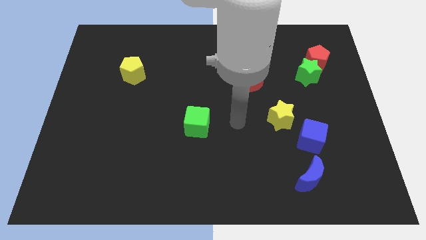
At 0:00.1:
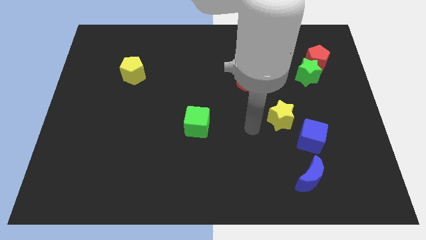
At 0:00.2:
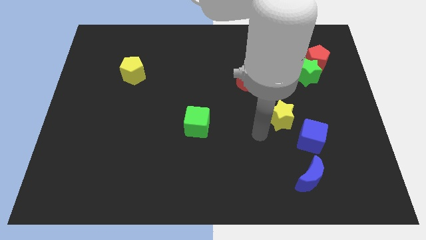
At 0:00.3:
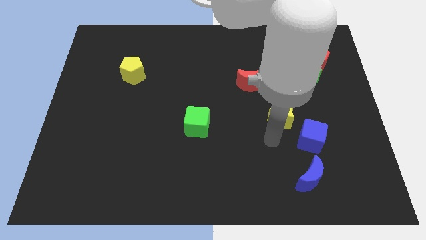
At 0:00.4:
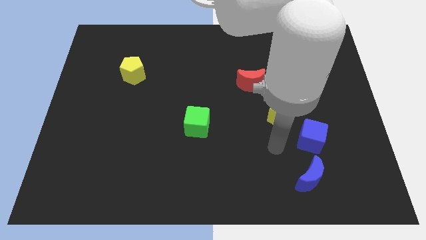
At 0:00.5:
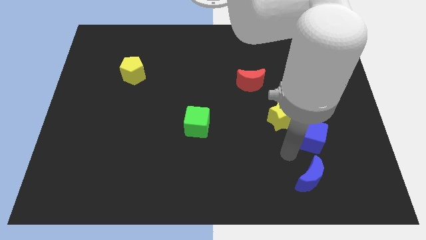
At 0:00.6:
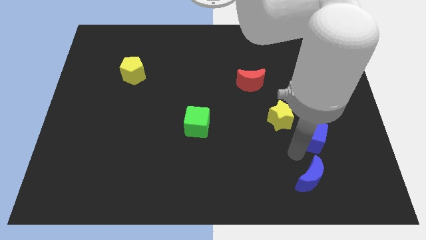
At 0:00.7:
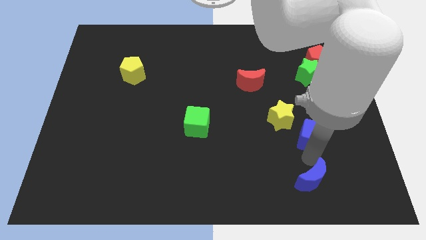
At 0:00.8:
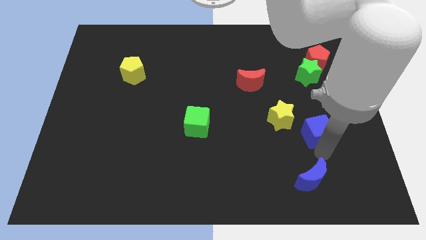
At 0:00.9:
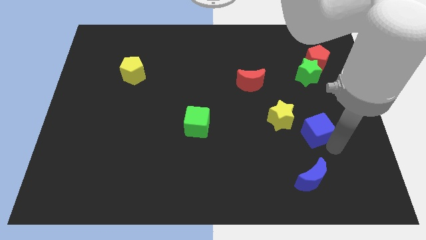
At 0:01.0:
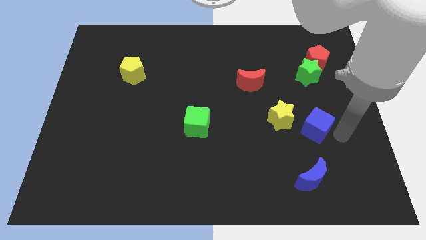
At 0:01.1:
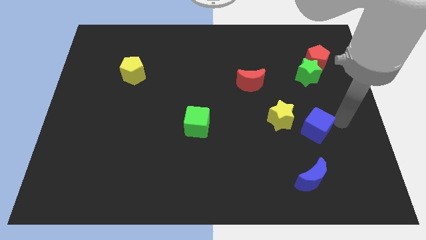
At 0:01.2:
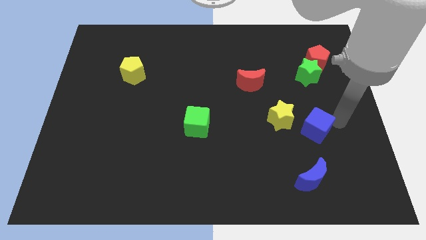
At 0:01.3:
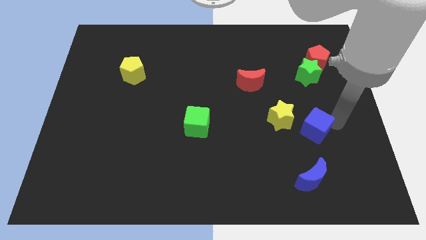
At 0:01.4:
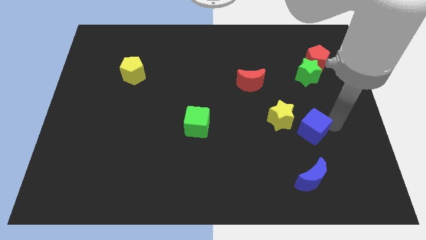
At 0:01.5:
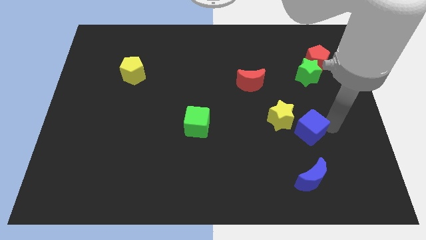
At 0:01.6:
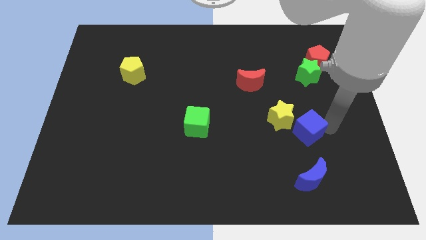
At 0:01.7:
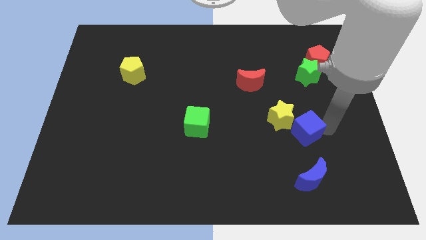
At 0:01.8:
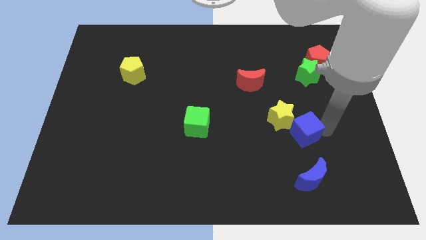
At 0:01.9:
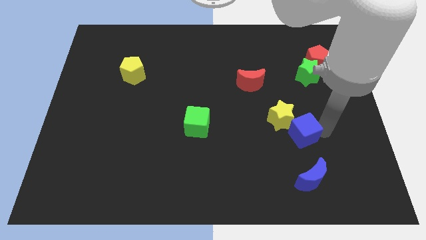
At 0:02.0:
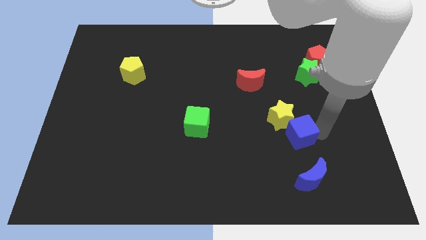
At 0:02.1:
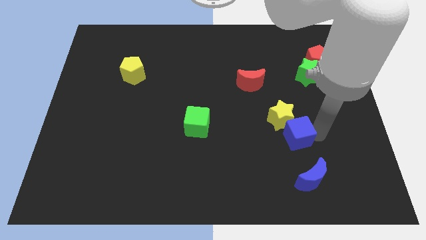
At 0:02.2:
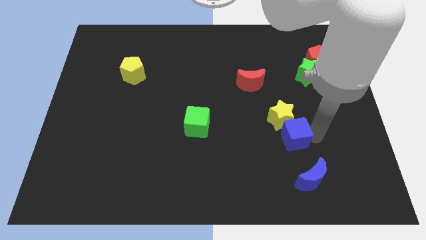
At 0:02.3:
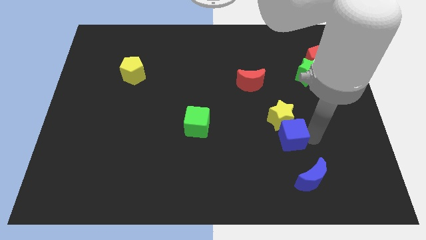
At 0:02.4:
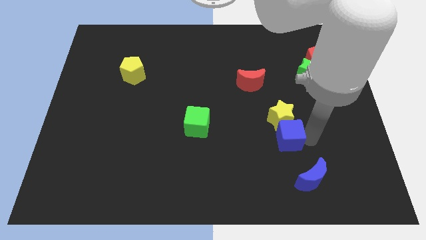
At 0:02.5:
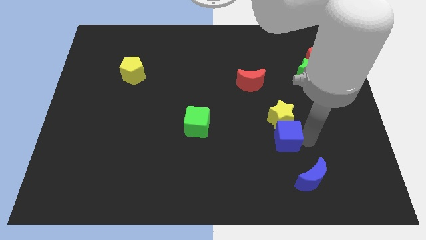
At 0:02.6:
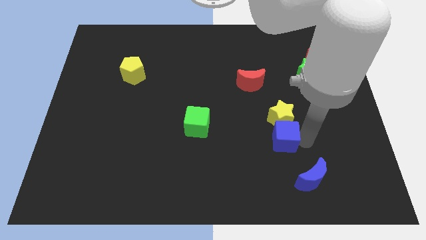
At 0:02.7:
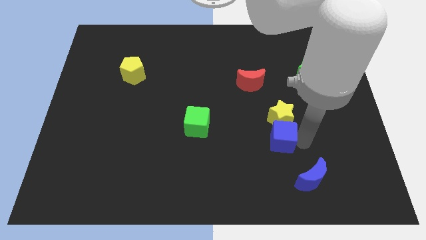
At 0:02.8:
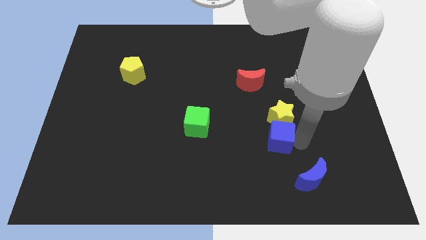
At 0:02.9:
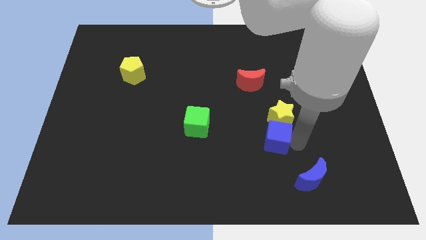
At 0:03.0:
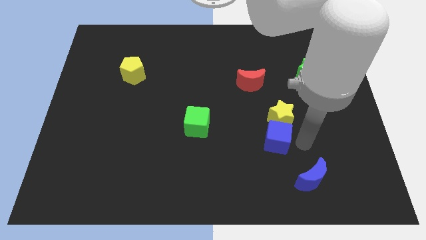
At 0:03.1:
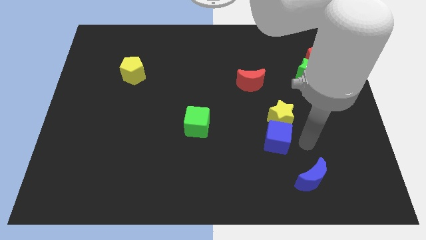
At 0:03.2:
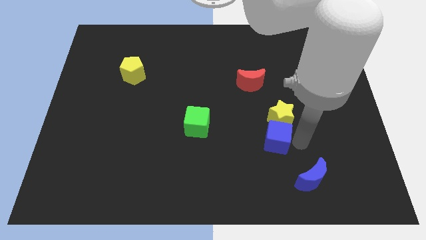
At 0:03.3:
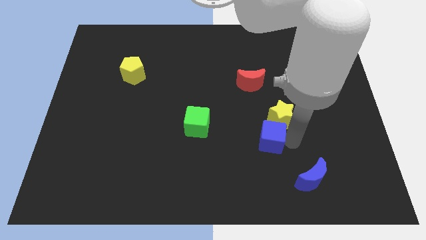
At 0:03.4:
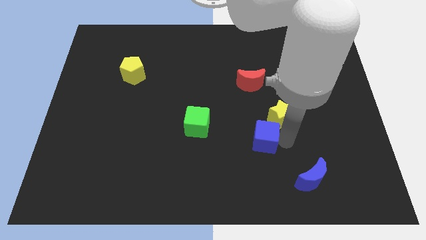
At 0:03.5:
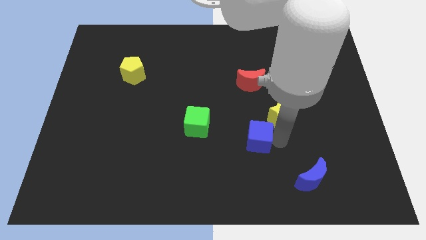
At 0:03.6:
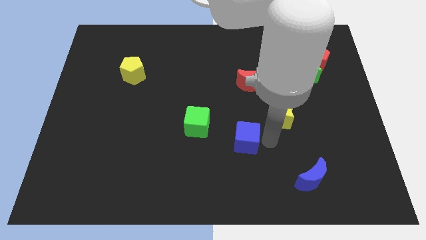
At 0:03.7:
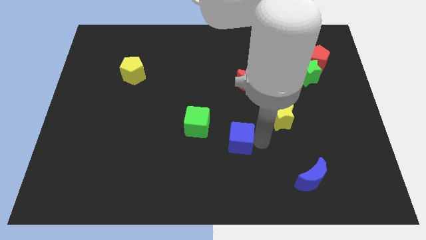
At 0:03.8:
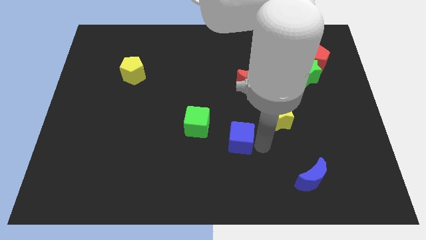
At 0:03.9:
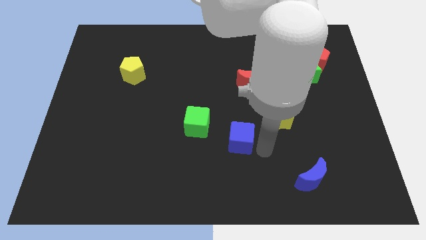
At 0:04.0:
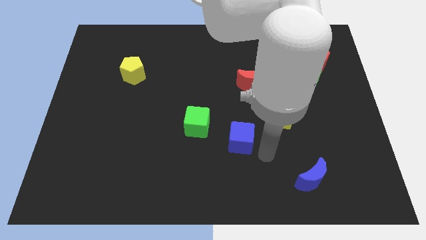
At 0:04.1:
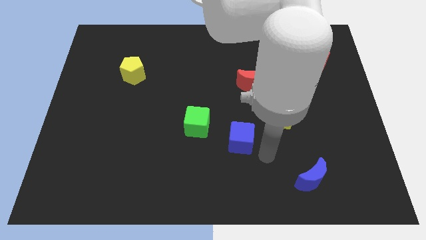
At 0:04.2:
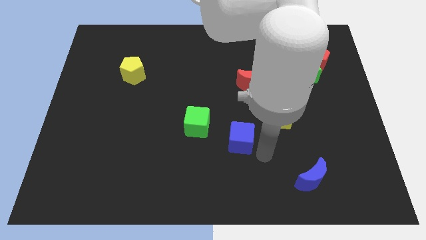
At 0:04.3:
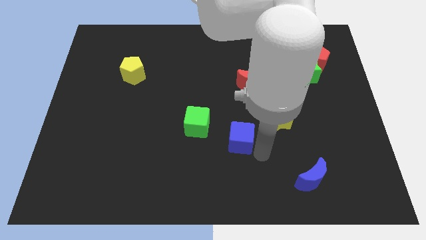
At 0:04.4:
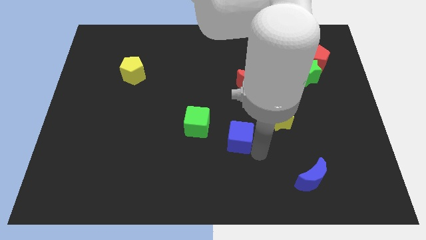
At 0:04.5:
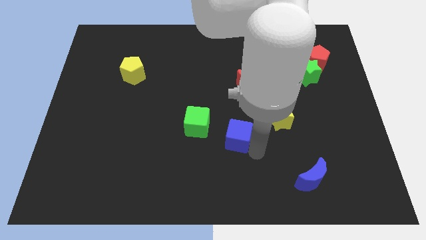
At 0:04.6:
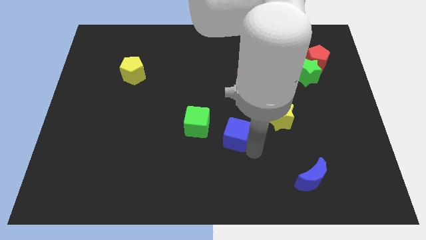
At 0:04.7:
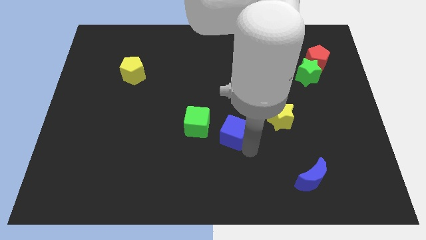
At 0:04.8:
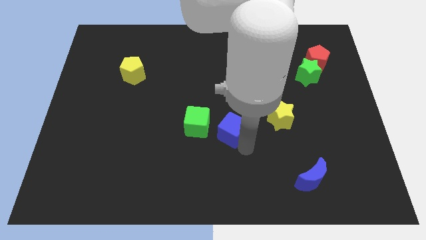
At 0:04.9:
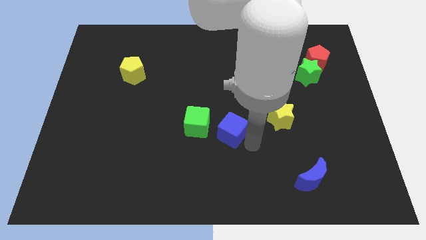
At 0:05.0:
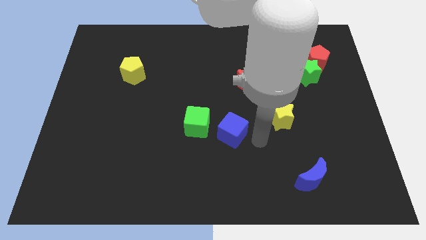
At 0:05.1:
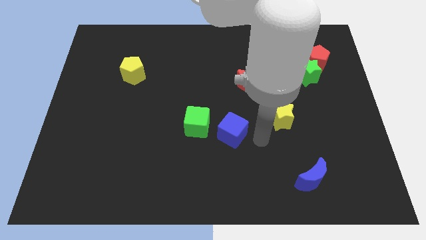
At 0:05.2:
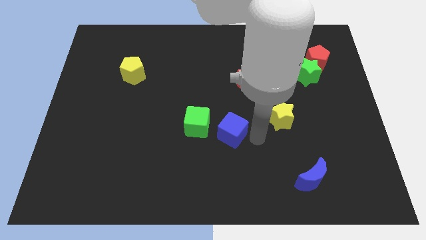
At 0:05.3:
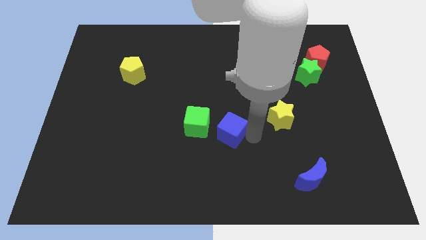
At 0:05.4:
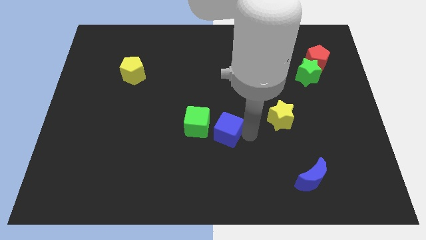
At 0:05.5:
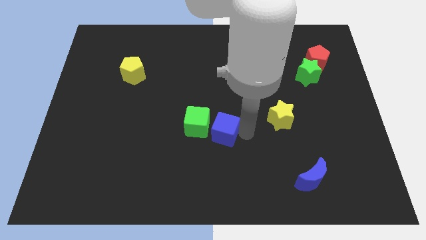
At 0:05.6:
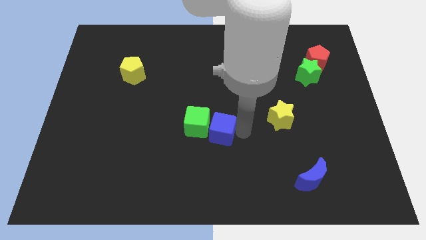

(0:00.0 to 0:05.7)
slide the blue cube to the green cube
